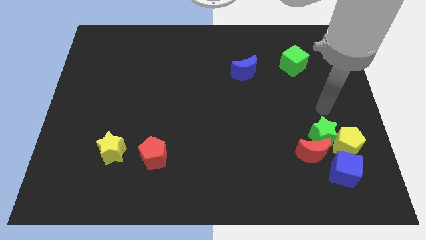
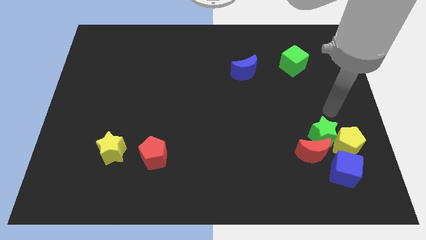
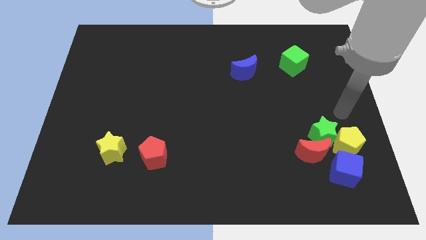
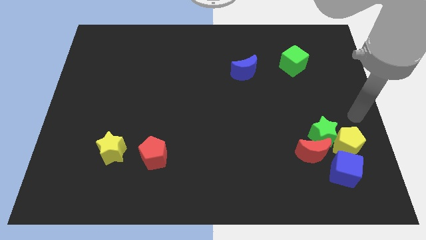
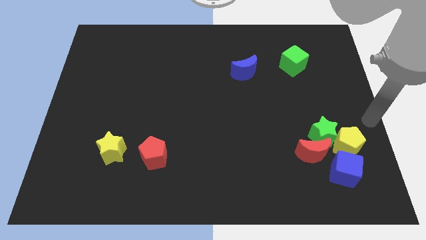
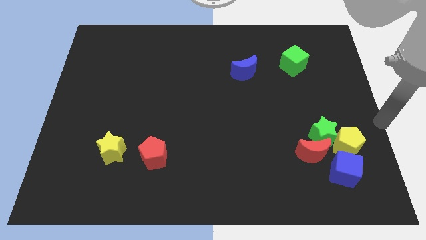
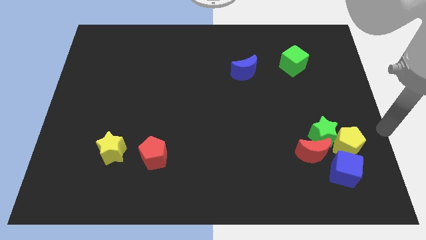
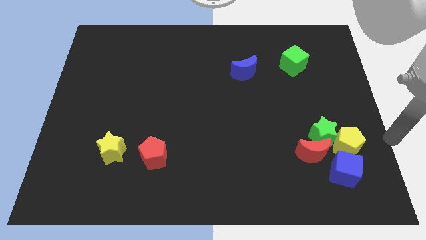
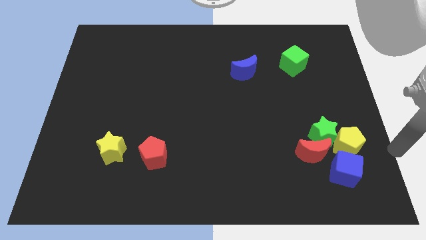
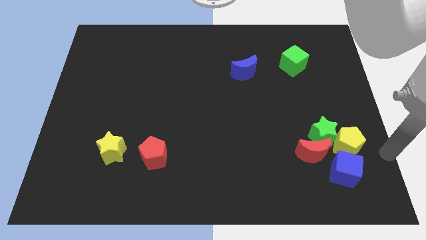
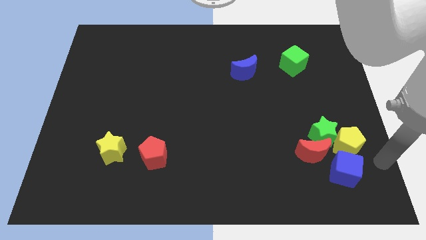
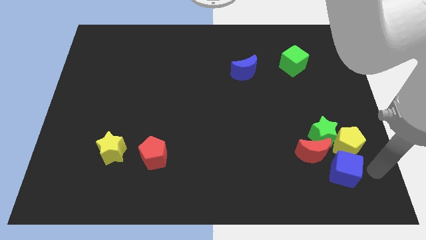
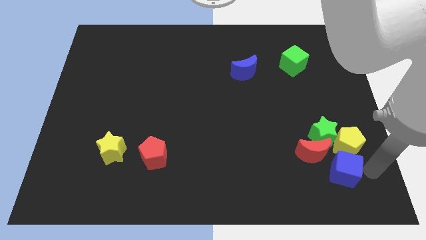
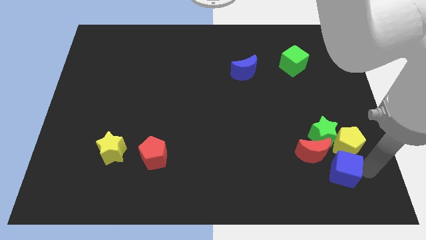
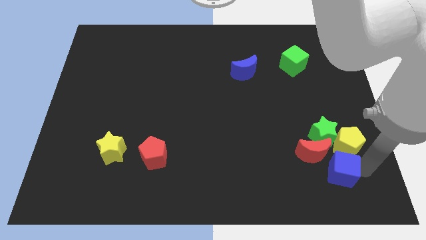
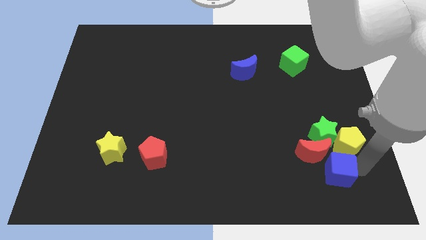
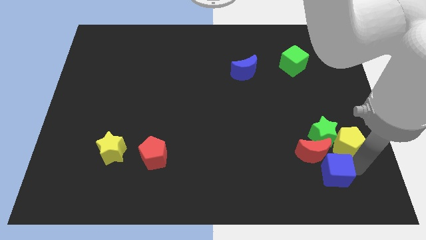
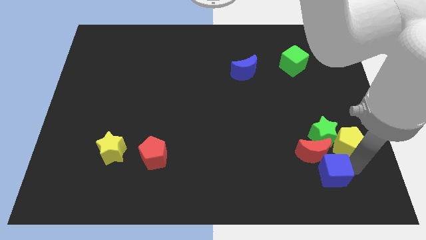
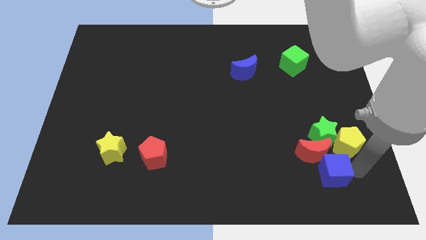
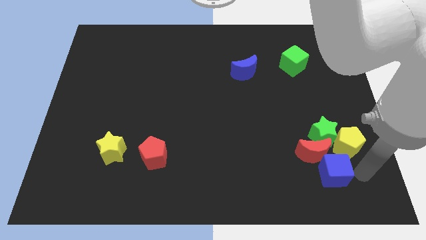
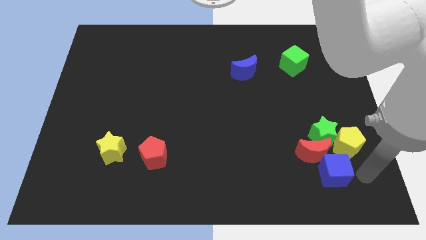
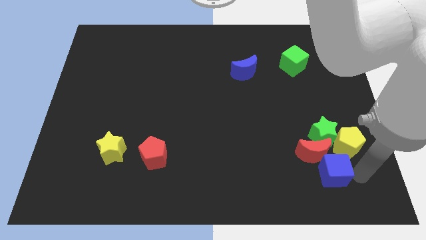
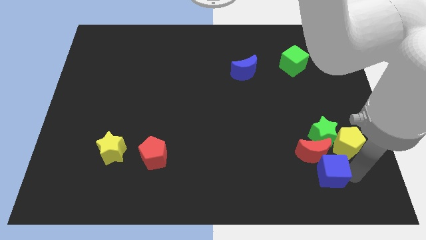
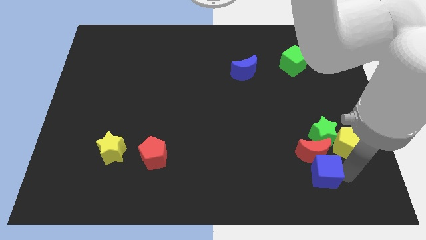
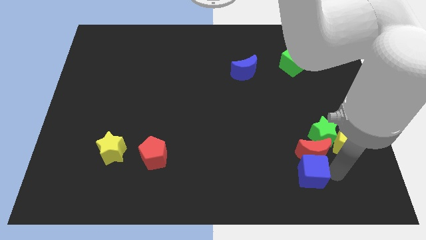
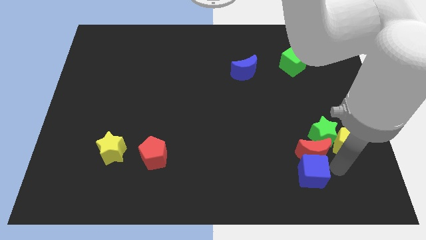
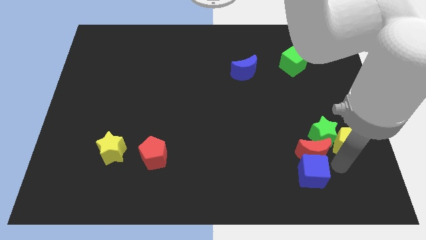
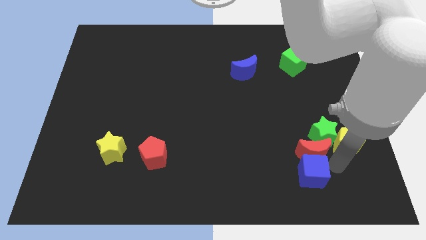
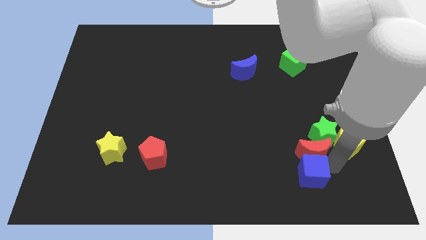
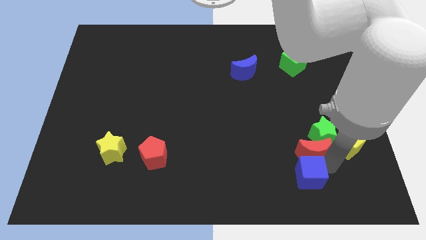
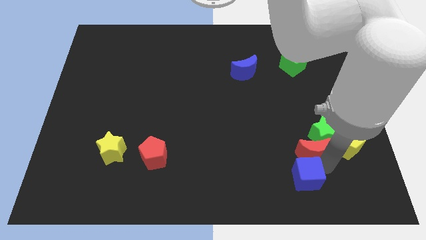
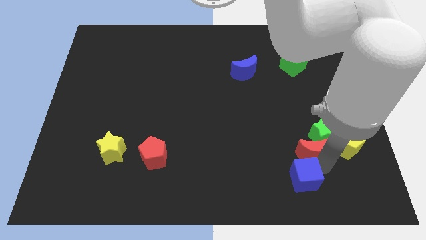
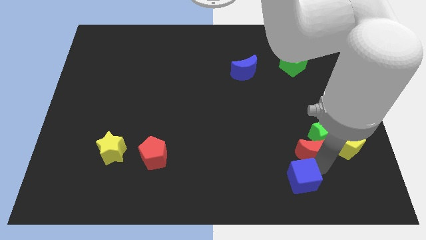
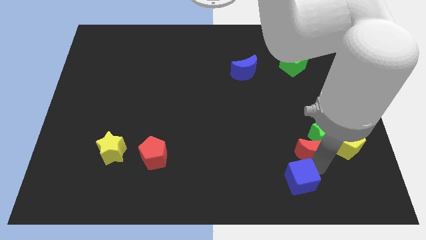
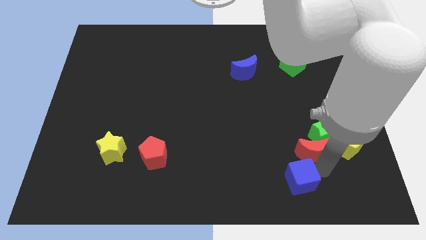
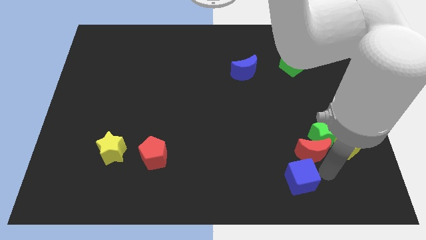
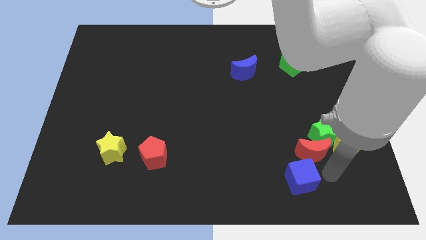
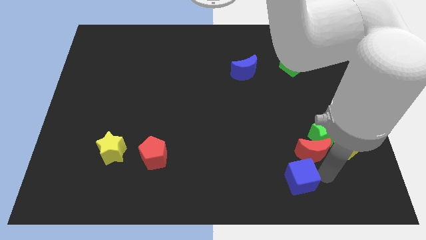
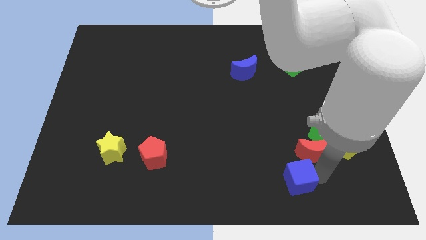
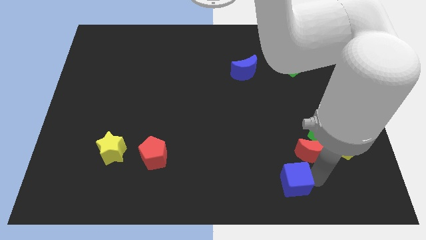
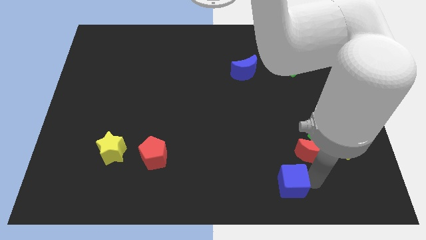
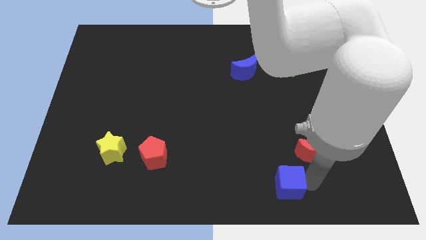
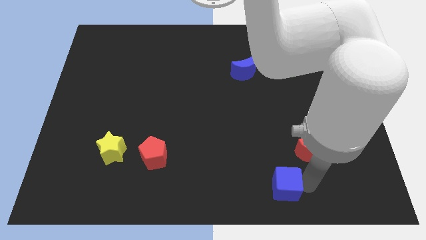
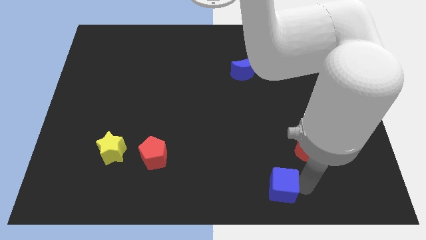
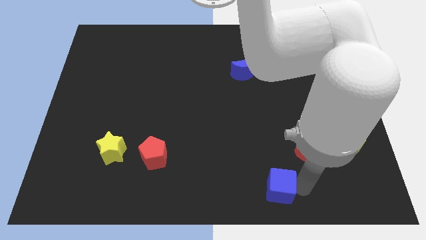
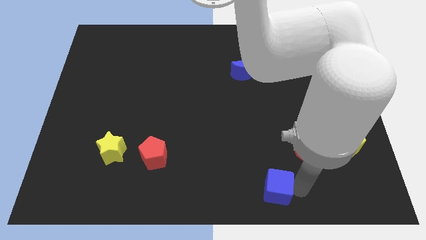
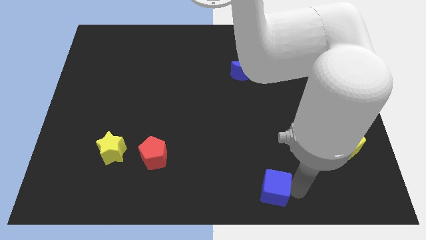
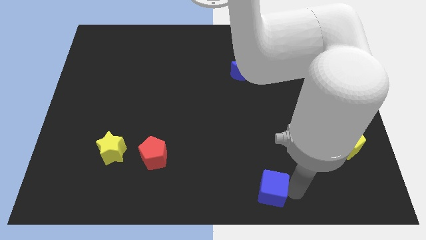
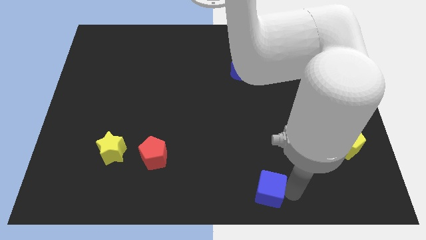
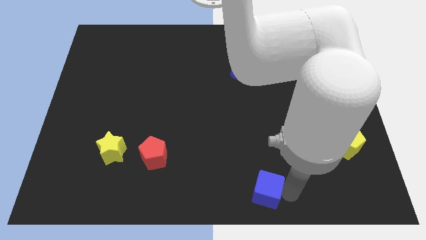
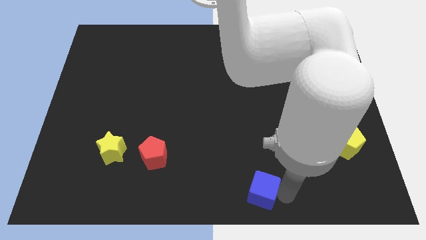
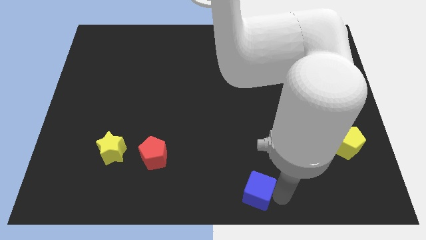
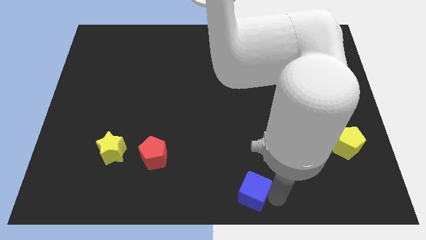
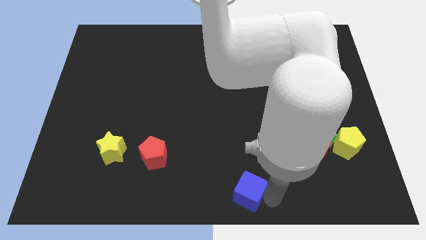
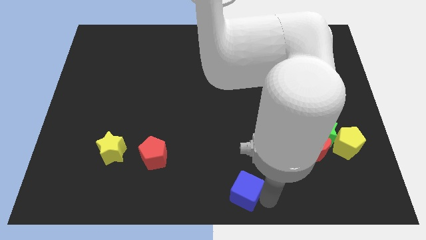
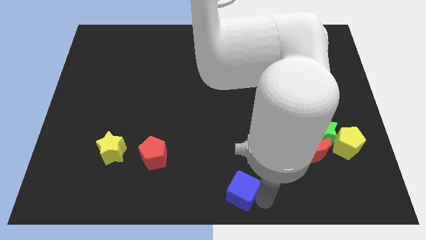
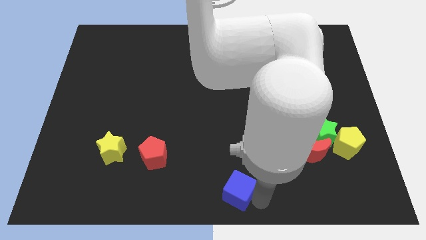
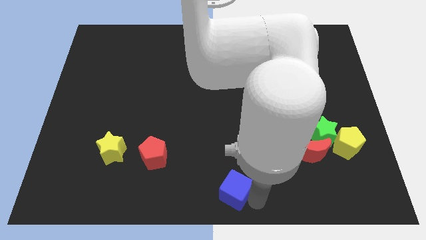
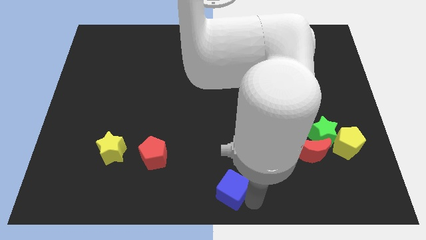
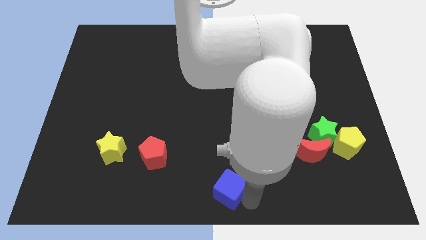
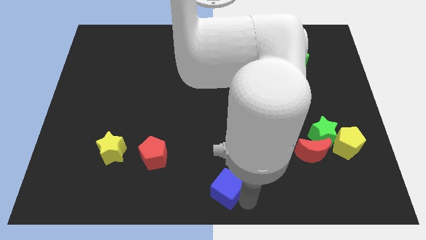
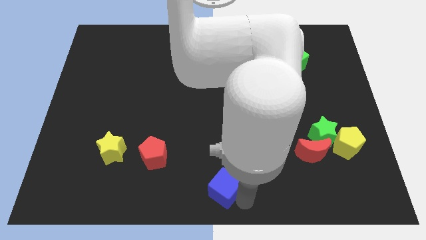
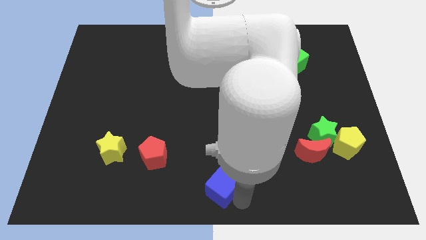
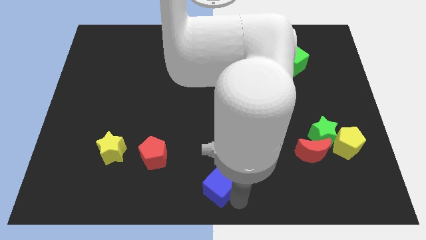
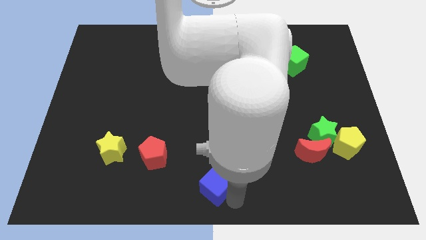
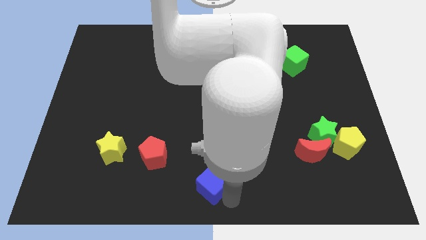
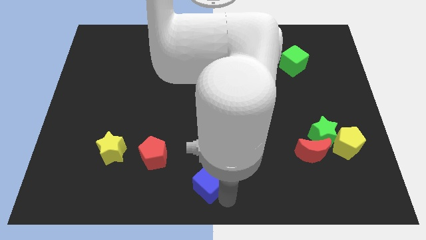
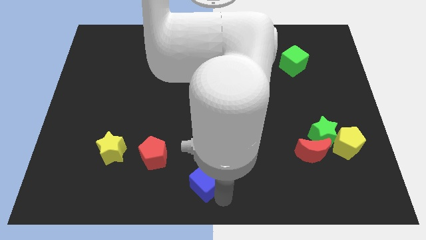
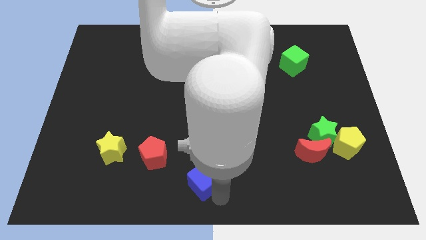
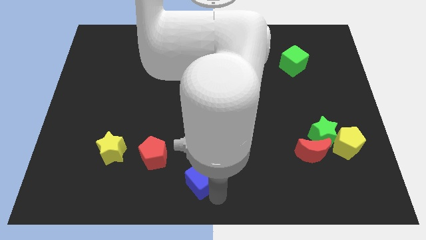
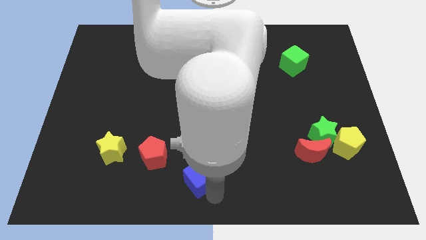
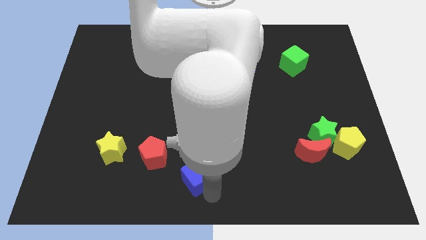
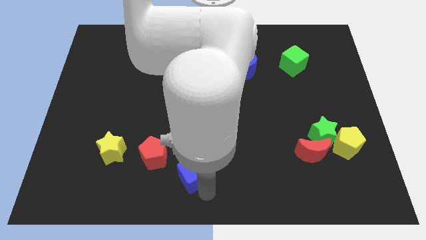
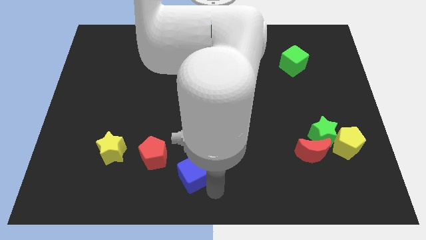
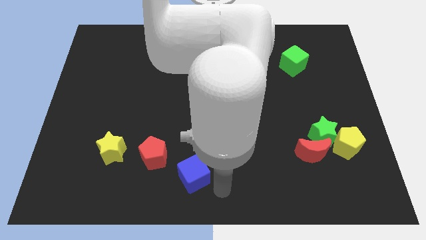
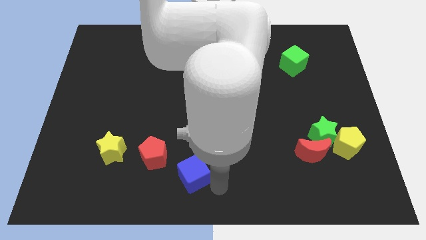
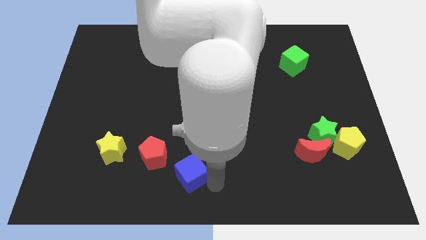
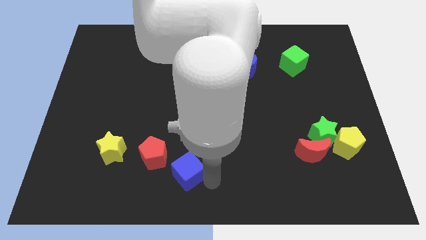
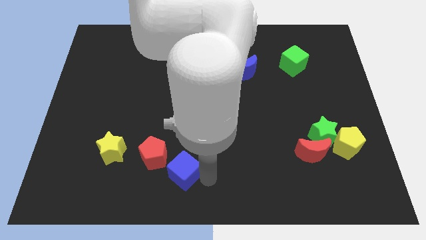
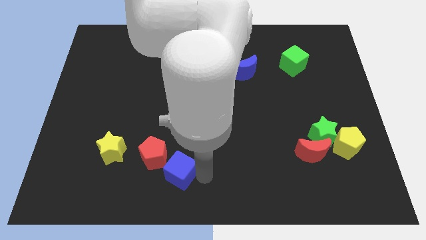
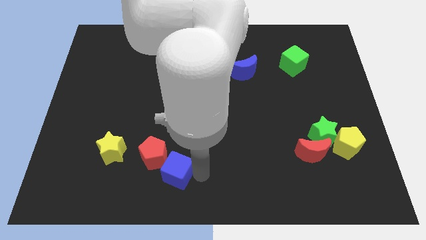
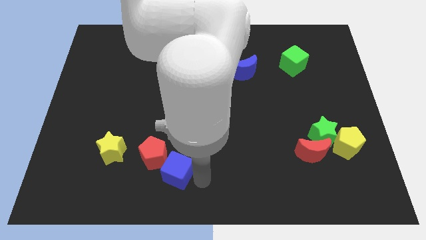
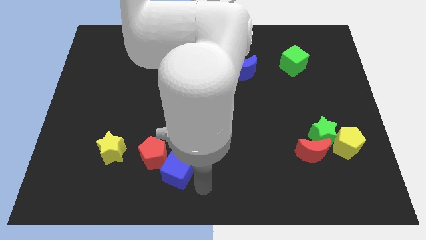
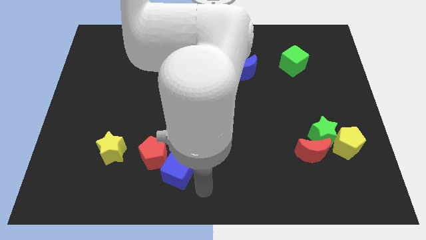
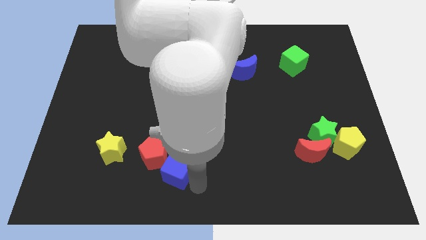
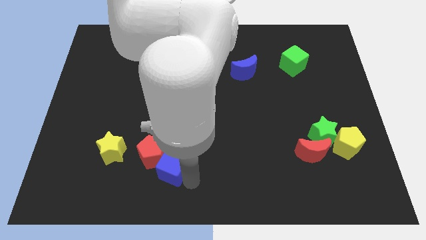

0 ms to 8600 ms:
put the blue cube towards the red pentagon
